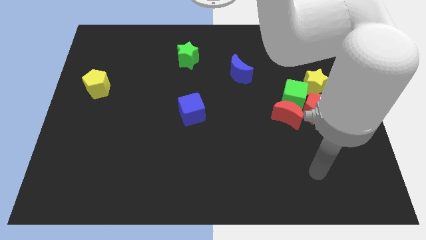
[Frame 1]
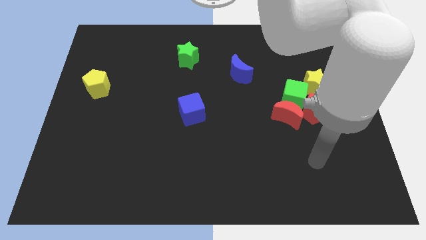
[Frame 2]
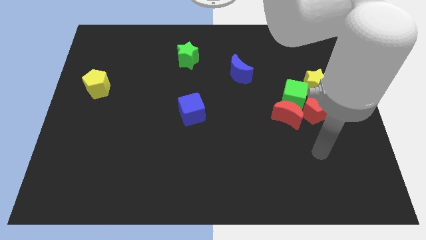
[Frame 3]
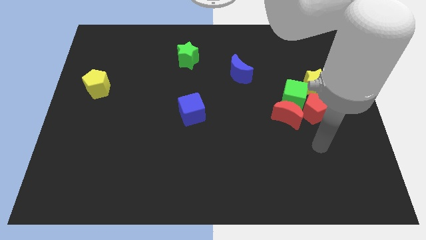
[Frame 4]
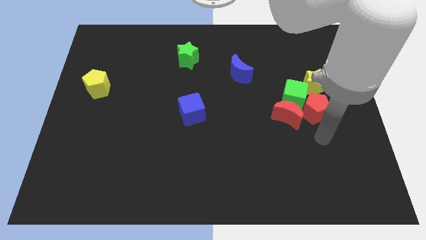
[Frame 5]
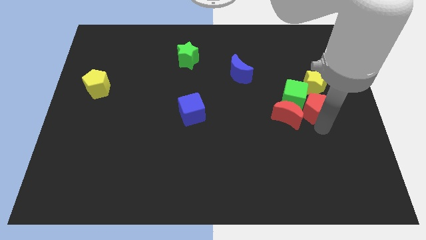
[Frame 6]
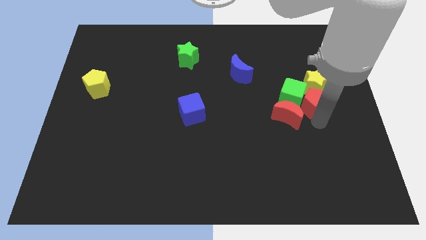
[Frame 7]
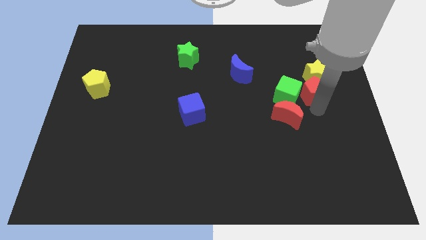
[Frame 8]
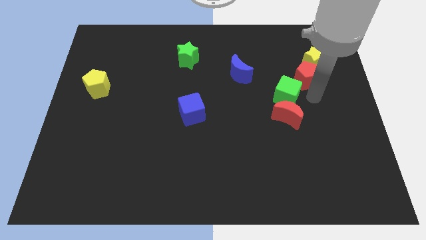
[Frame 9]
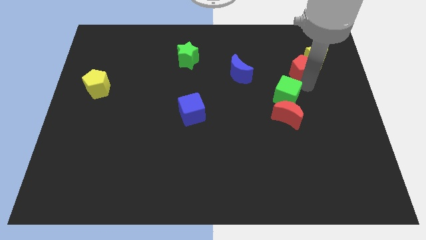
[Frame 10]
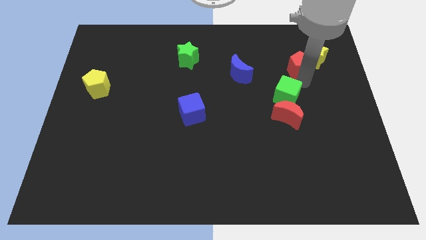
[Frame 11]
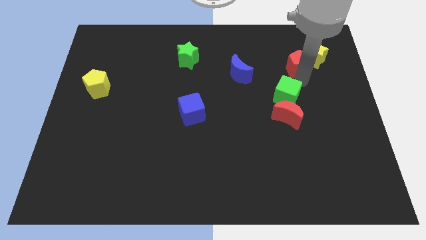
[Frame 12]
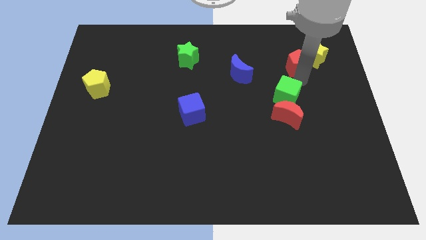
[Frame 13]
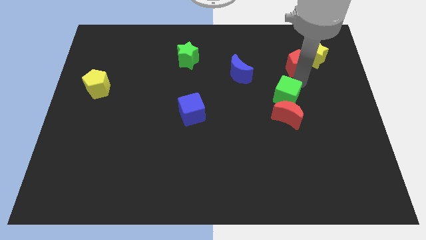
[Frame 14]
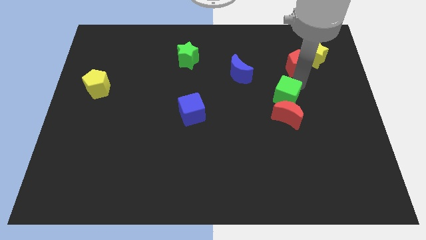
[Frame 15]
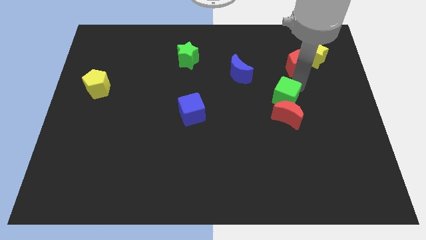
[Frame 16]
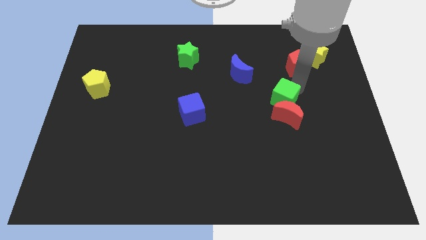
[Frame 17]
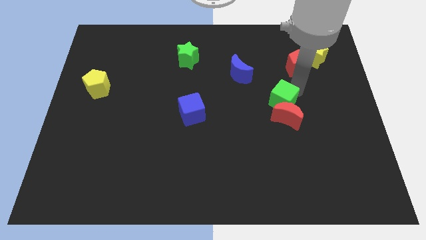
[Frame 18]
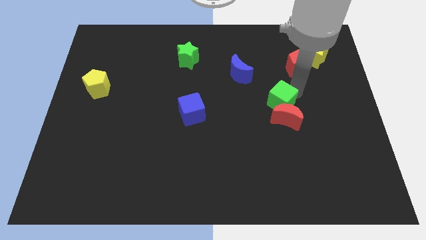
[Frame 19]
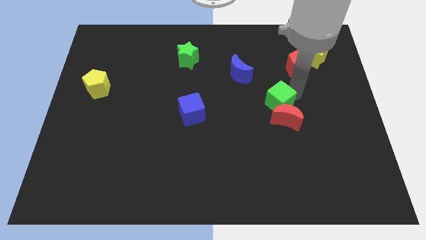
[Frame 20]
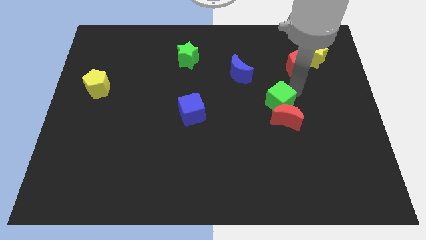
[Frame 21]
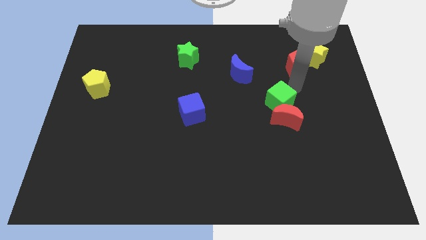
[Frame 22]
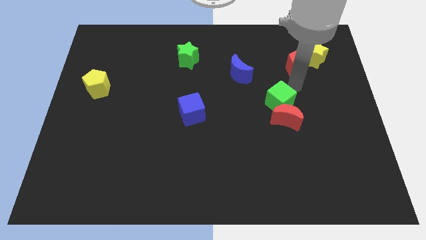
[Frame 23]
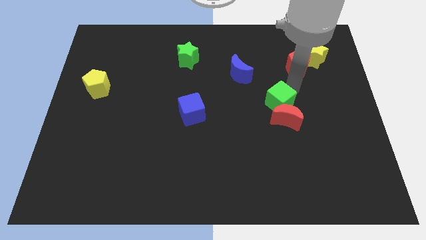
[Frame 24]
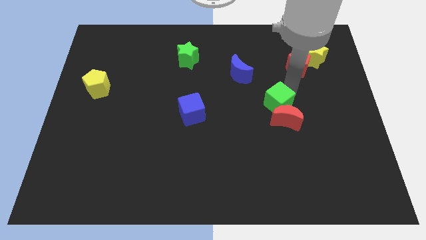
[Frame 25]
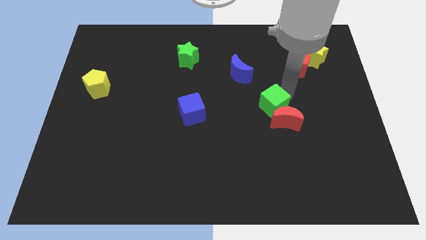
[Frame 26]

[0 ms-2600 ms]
separate the green cube from the clump

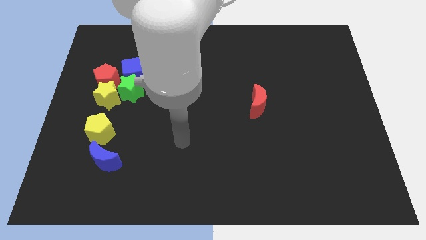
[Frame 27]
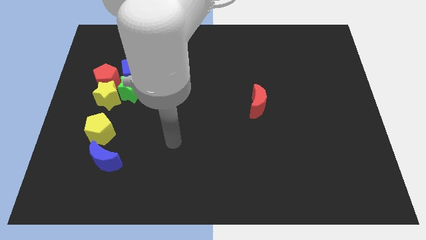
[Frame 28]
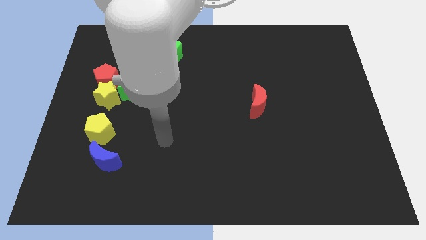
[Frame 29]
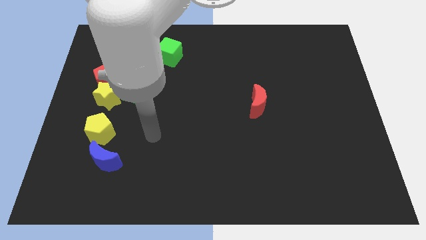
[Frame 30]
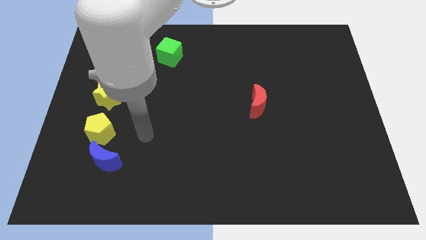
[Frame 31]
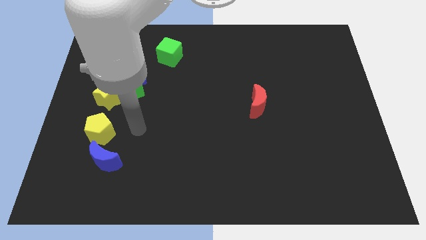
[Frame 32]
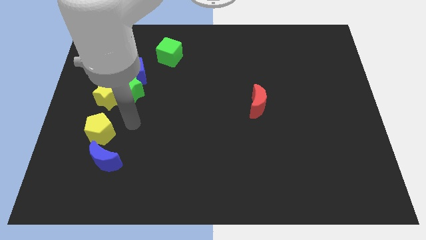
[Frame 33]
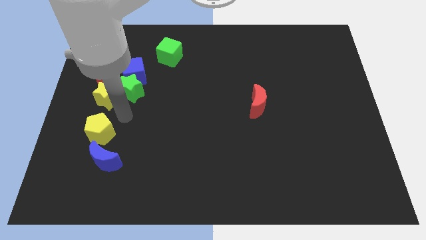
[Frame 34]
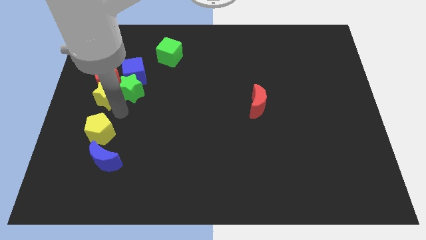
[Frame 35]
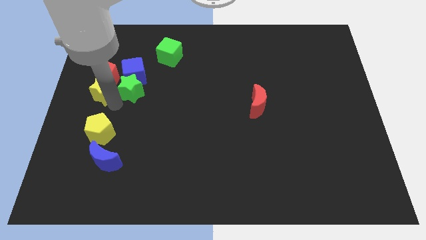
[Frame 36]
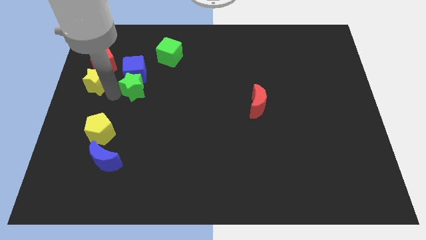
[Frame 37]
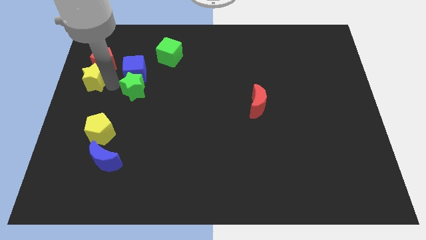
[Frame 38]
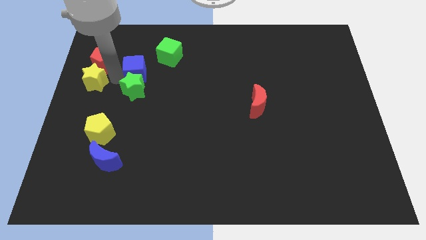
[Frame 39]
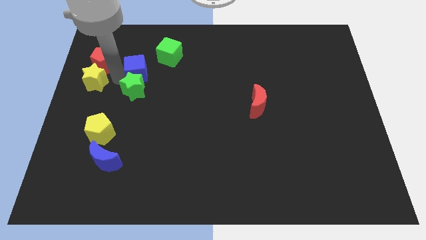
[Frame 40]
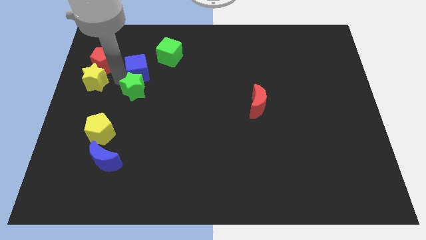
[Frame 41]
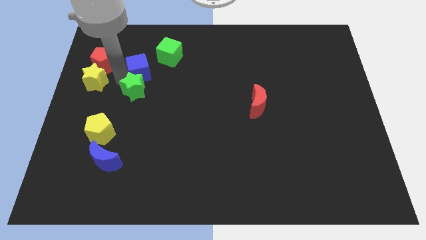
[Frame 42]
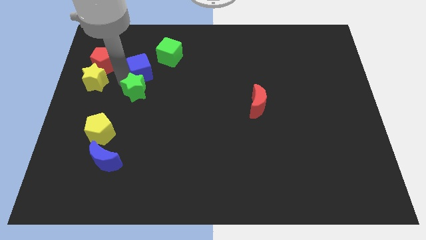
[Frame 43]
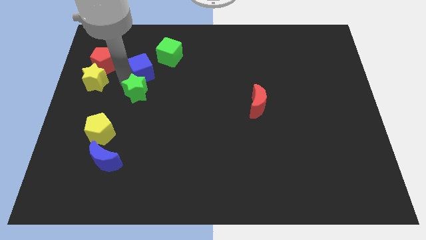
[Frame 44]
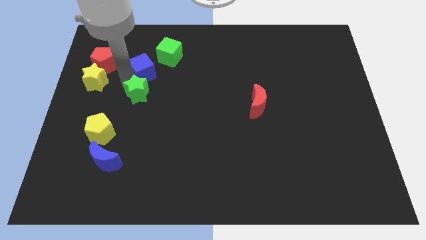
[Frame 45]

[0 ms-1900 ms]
move the green star away from the group

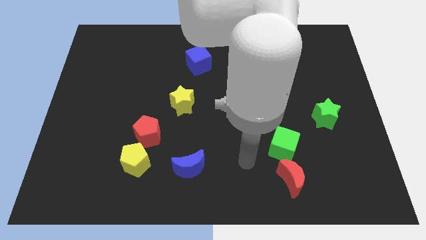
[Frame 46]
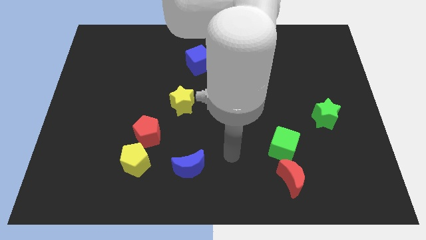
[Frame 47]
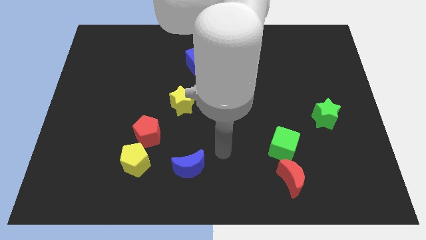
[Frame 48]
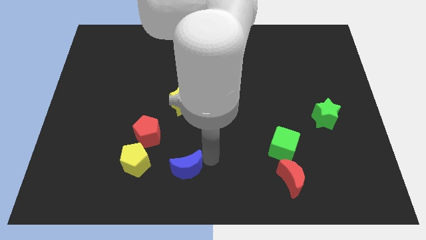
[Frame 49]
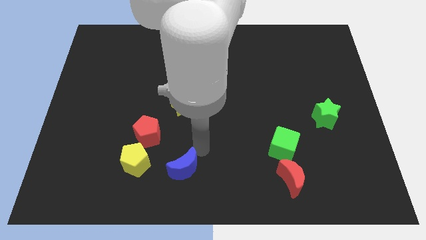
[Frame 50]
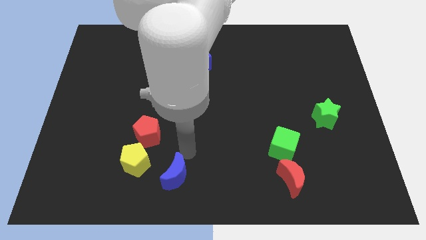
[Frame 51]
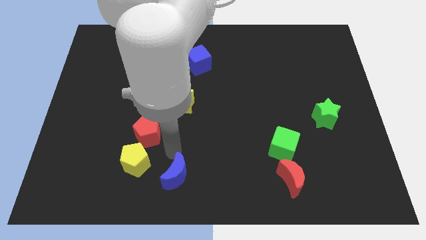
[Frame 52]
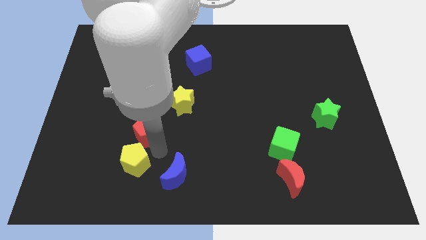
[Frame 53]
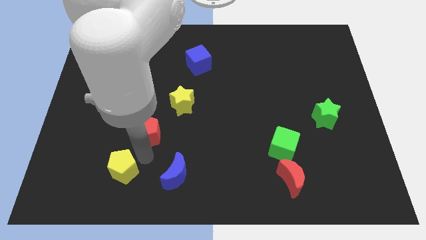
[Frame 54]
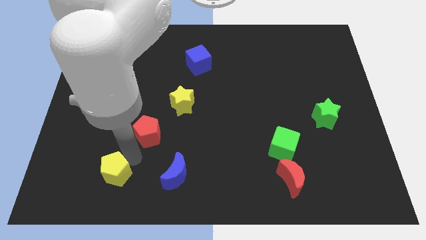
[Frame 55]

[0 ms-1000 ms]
pull the red pentagon apart from the yellow pentagon

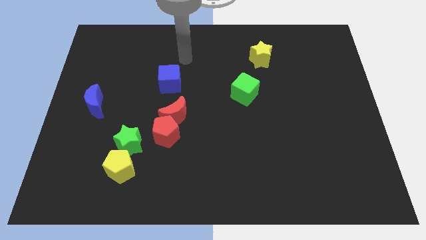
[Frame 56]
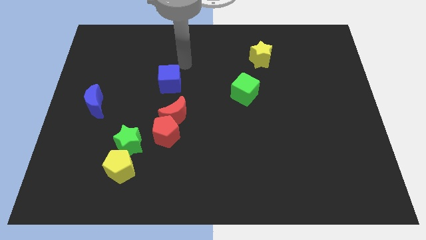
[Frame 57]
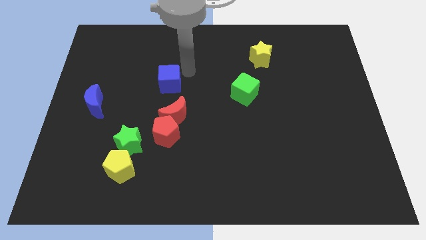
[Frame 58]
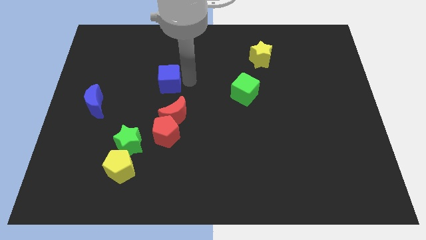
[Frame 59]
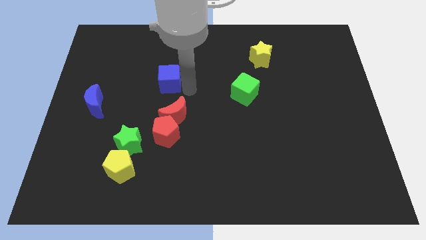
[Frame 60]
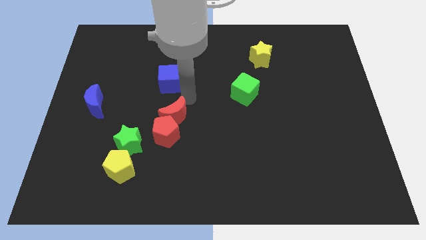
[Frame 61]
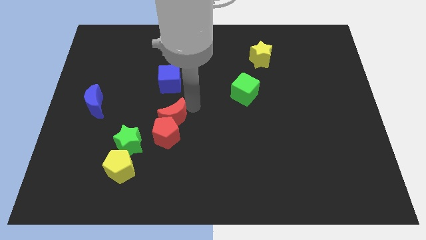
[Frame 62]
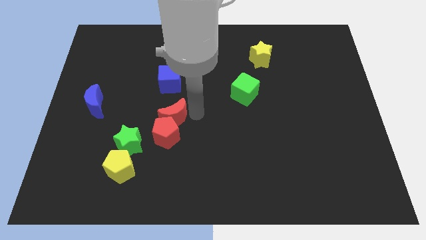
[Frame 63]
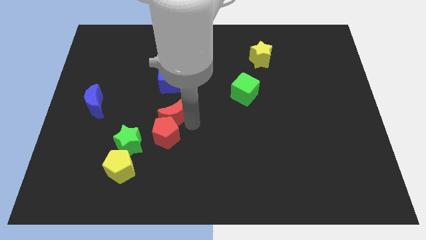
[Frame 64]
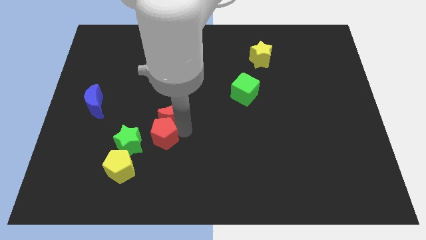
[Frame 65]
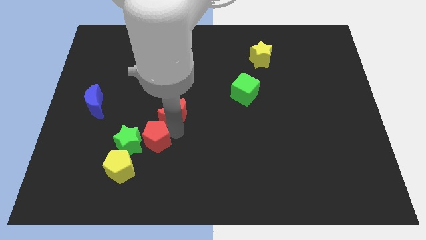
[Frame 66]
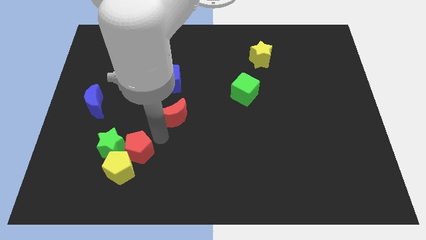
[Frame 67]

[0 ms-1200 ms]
move the red moon away from the red pentagon

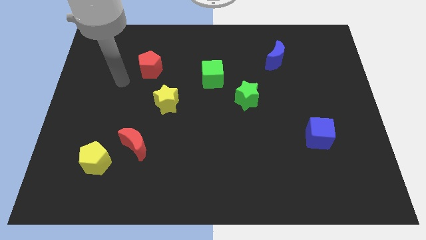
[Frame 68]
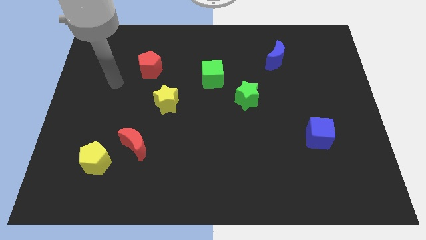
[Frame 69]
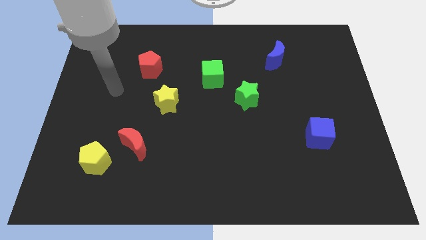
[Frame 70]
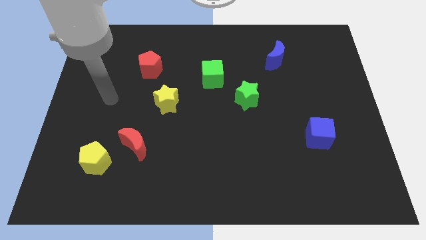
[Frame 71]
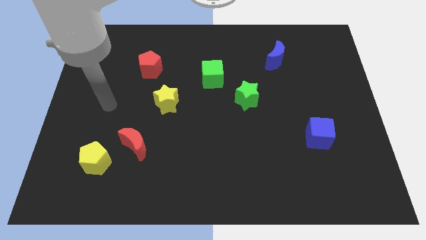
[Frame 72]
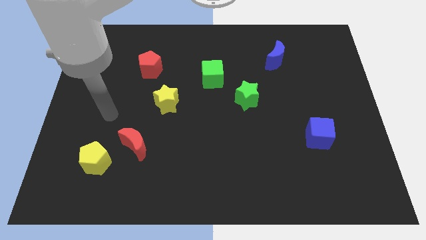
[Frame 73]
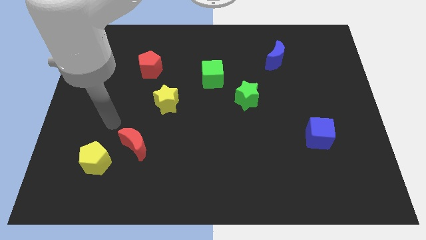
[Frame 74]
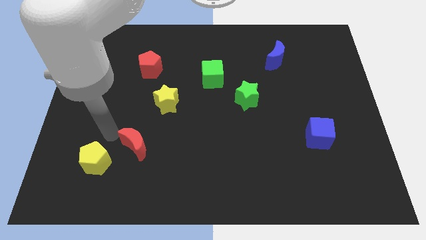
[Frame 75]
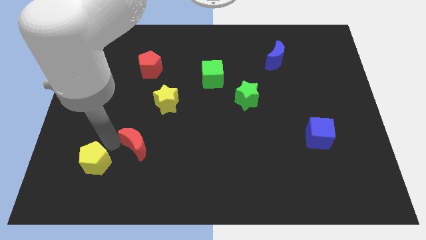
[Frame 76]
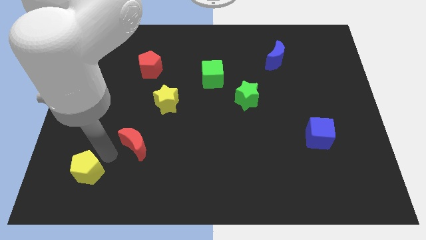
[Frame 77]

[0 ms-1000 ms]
pull the red moon apart from the yellow pentagon

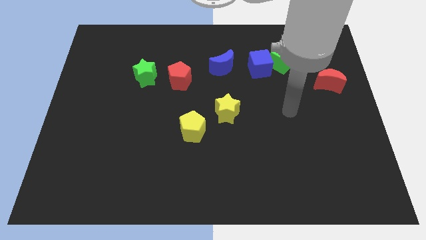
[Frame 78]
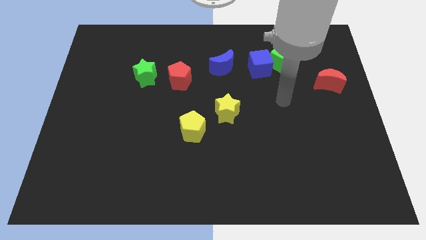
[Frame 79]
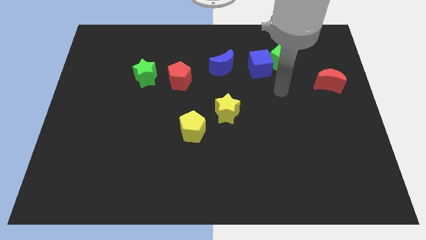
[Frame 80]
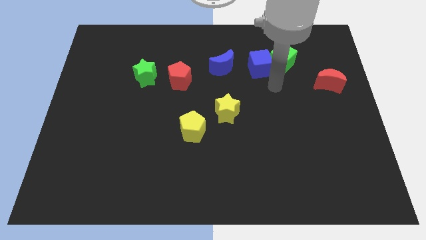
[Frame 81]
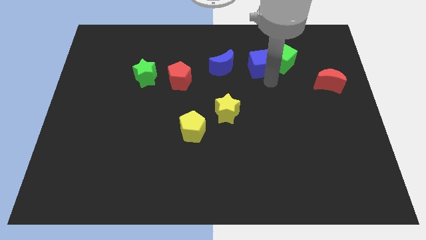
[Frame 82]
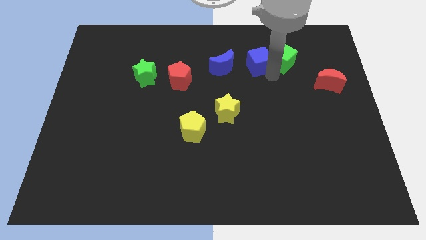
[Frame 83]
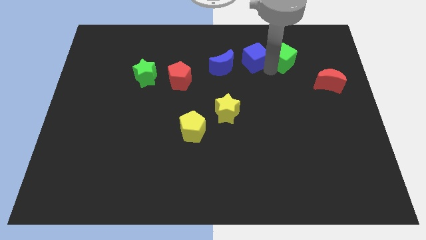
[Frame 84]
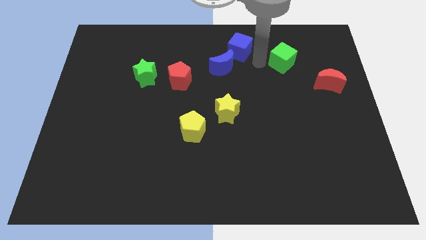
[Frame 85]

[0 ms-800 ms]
separate the green cube from the blue cube

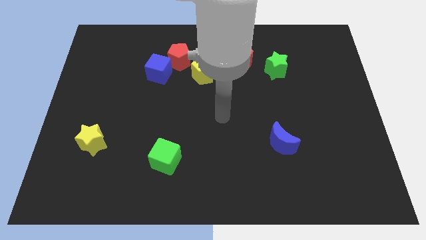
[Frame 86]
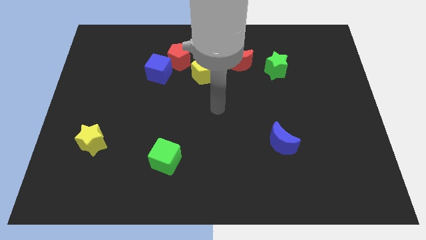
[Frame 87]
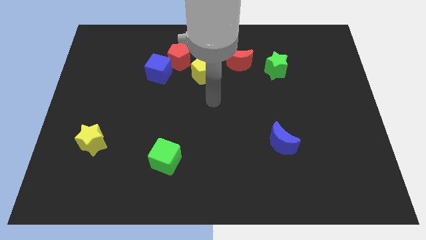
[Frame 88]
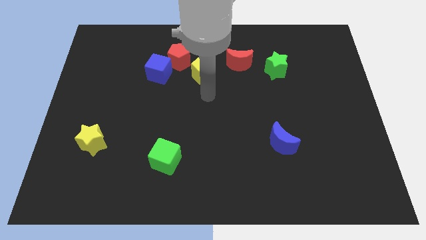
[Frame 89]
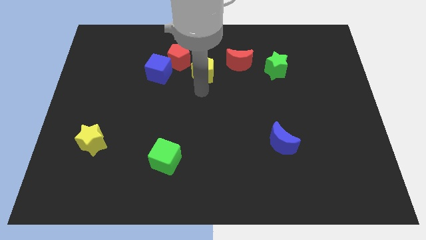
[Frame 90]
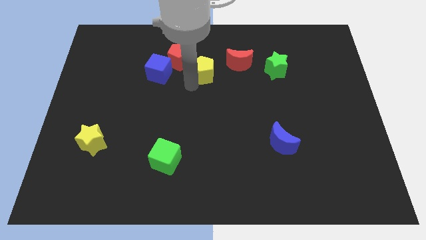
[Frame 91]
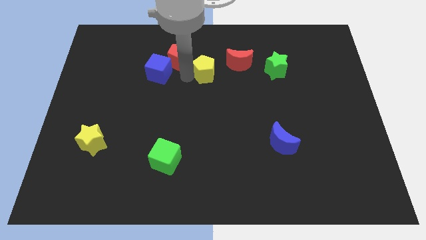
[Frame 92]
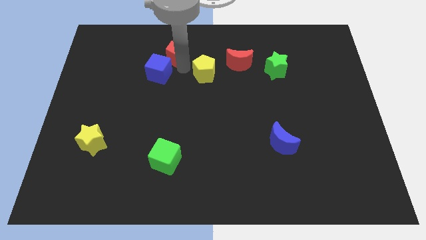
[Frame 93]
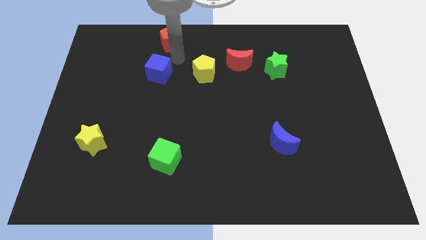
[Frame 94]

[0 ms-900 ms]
move the blue cube away from the red pentagon
